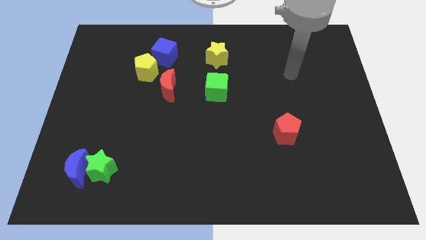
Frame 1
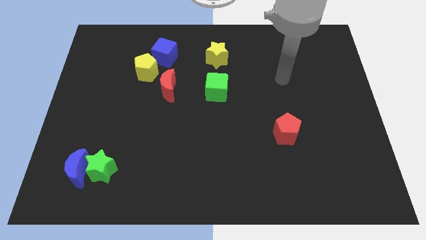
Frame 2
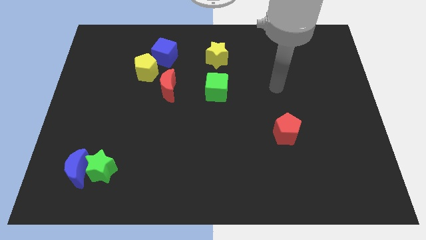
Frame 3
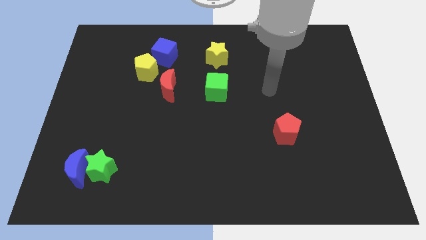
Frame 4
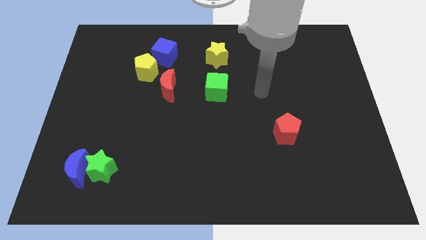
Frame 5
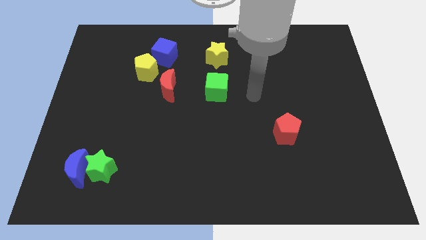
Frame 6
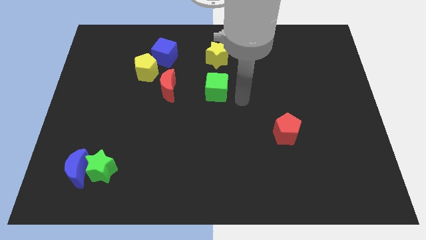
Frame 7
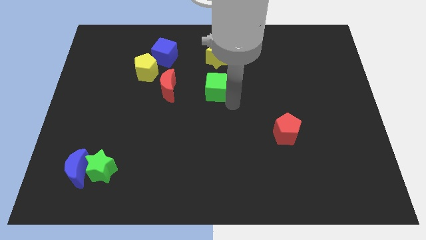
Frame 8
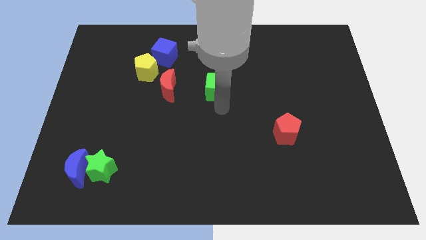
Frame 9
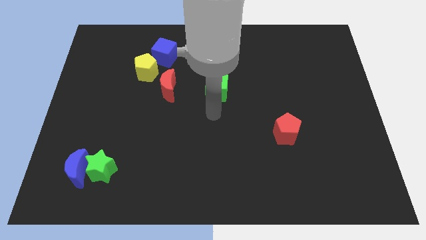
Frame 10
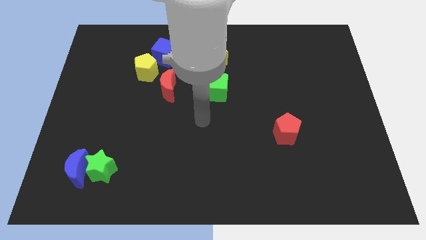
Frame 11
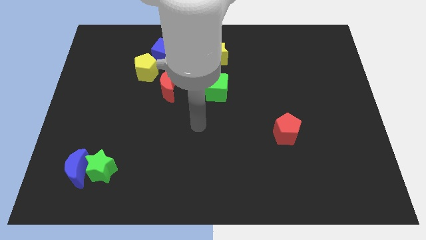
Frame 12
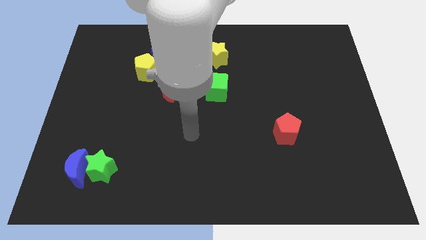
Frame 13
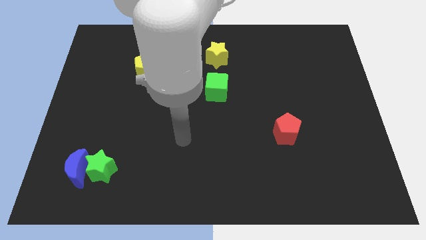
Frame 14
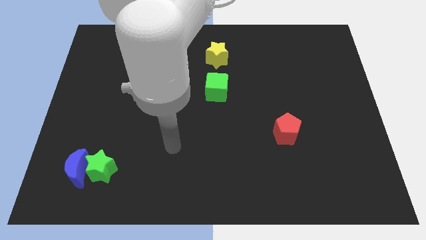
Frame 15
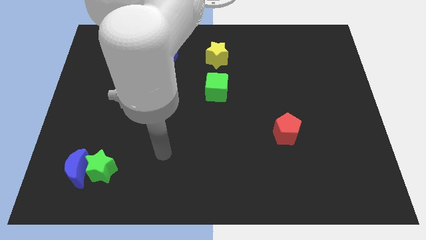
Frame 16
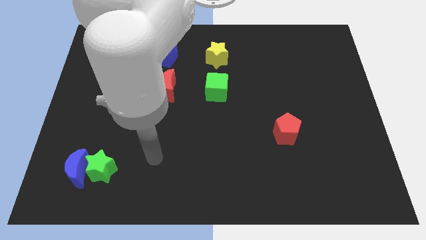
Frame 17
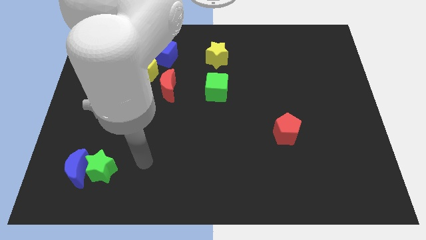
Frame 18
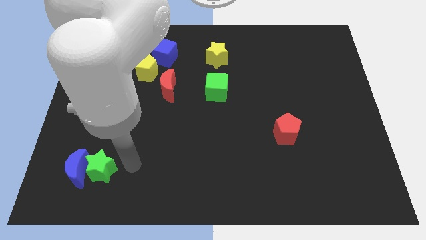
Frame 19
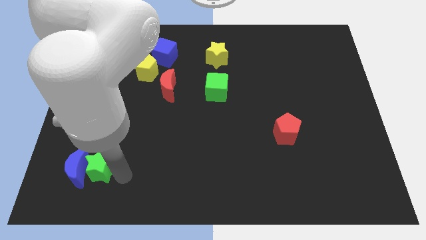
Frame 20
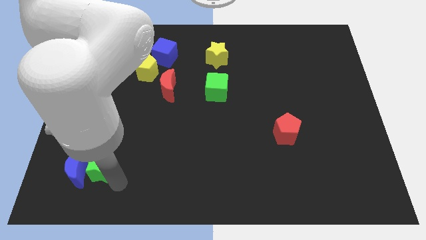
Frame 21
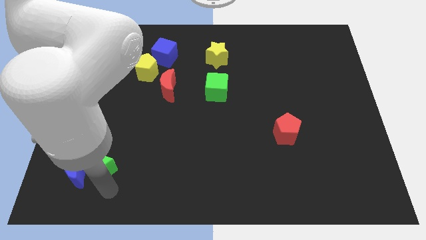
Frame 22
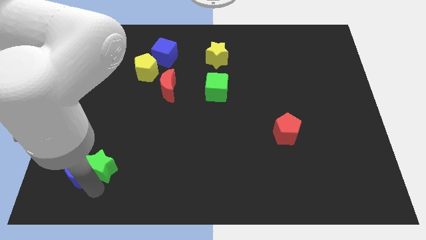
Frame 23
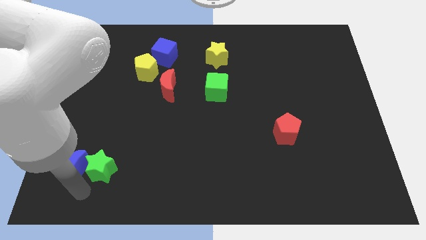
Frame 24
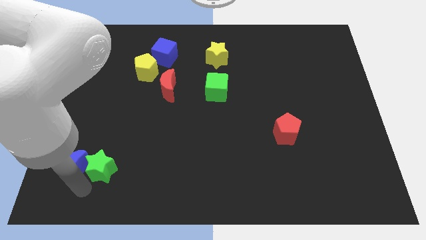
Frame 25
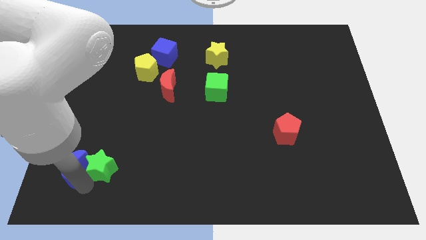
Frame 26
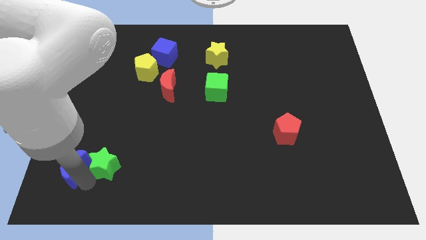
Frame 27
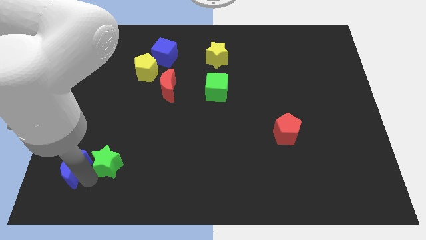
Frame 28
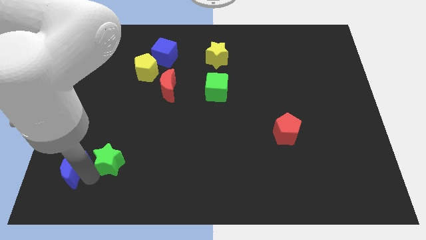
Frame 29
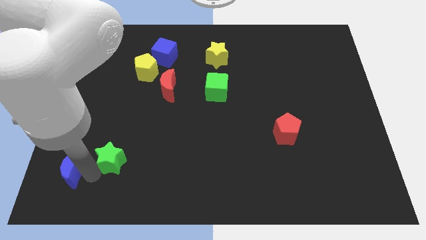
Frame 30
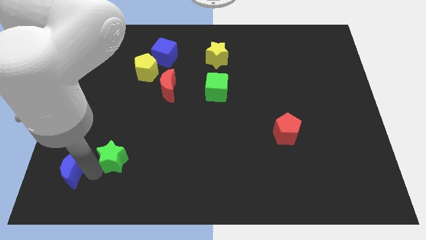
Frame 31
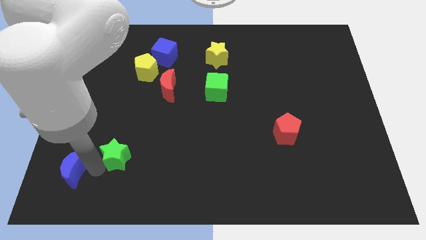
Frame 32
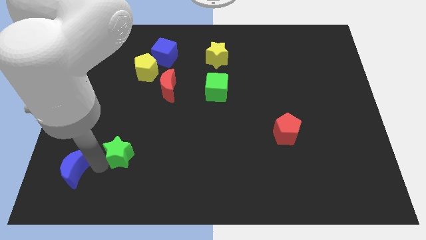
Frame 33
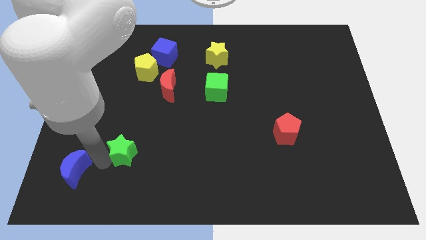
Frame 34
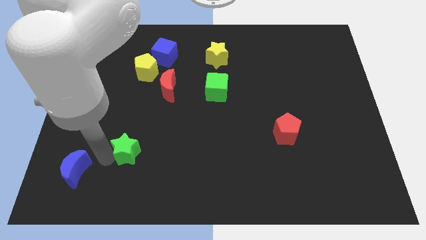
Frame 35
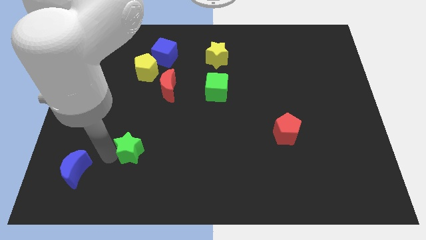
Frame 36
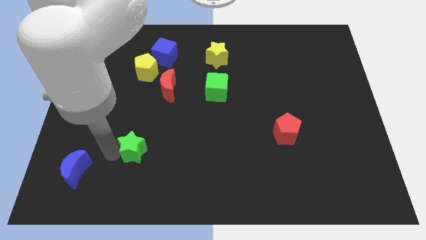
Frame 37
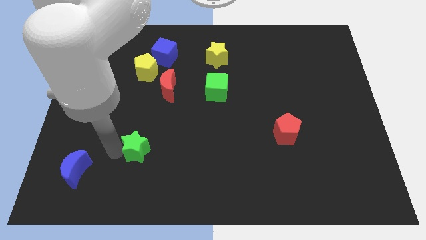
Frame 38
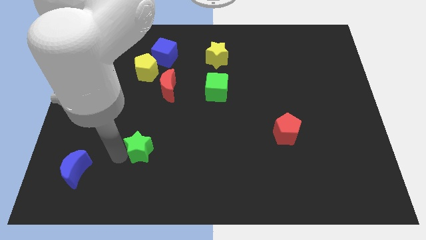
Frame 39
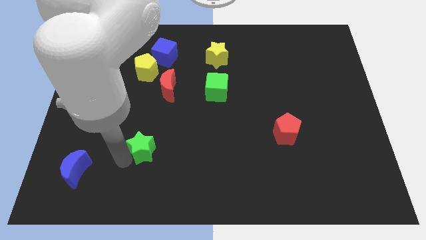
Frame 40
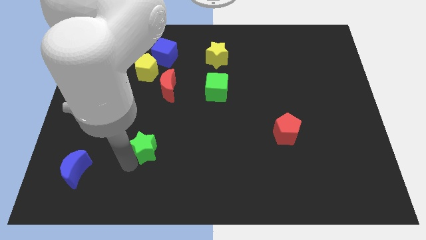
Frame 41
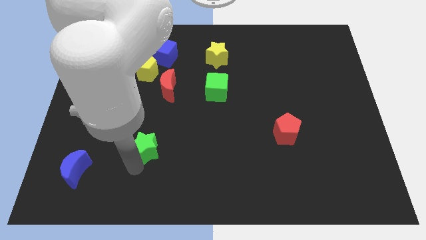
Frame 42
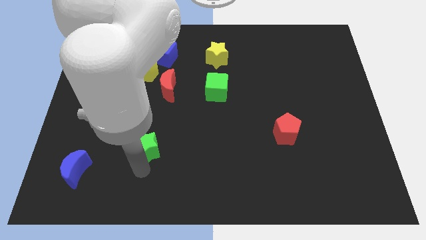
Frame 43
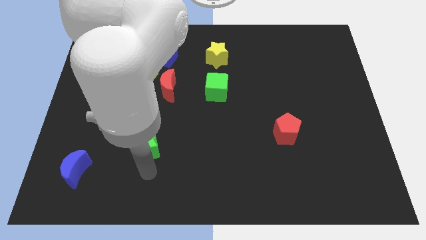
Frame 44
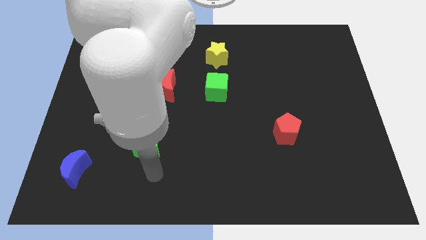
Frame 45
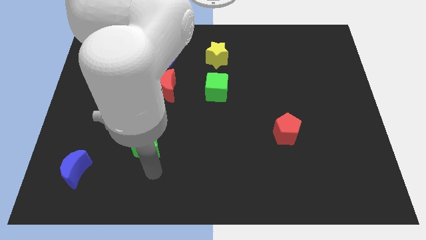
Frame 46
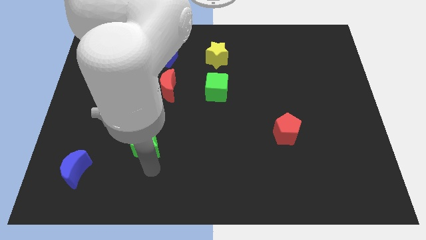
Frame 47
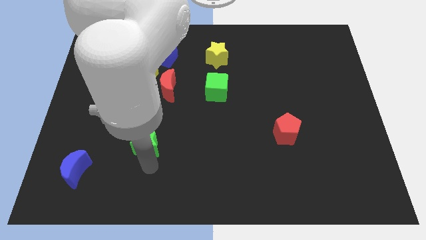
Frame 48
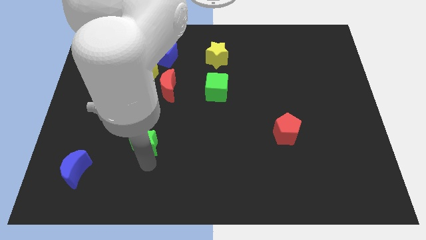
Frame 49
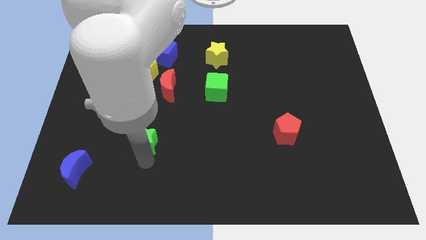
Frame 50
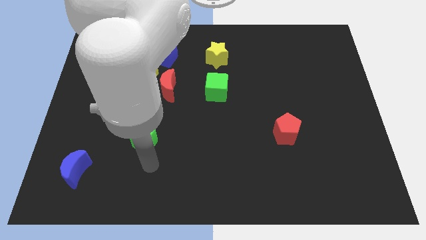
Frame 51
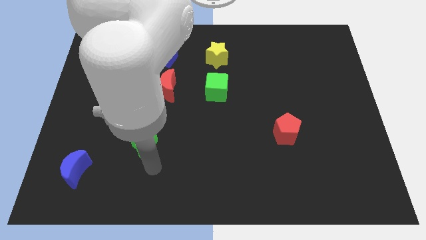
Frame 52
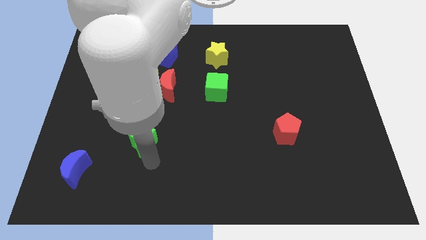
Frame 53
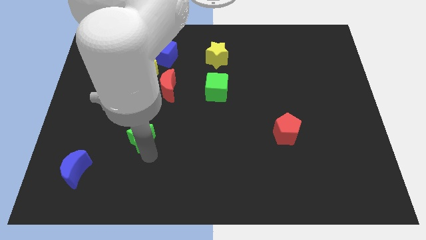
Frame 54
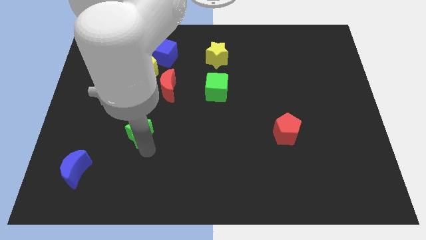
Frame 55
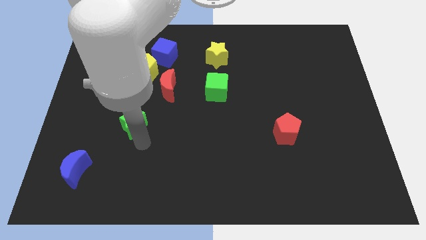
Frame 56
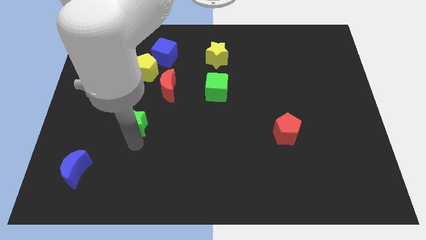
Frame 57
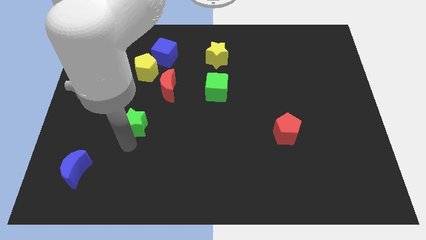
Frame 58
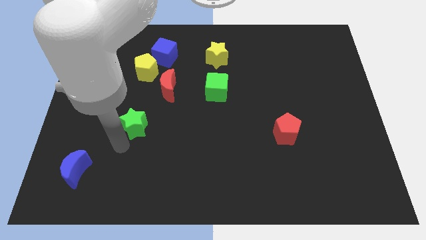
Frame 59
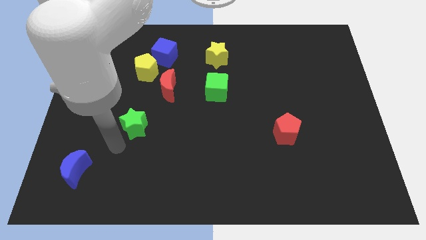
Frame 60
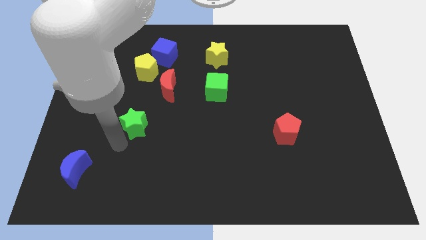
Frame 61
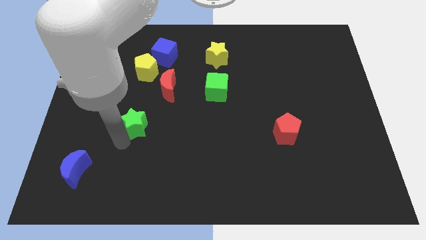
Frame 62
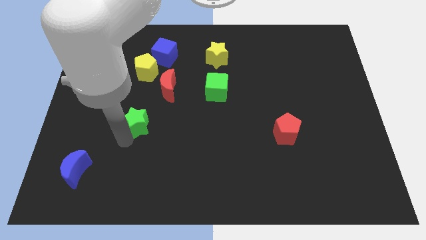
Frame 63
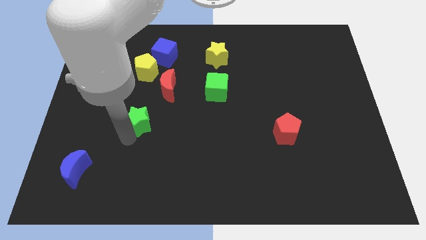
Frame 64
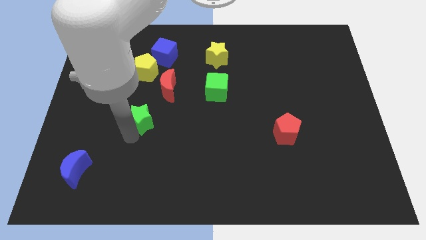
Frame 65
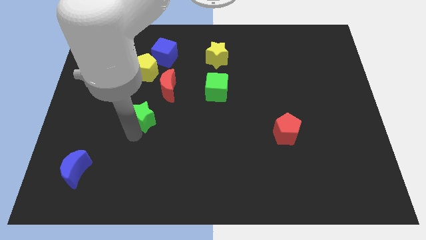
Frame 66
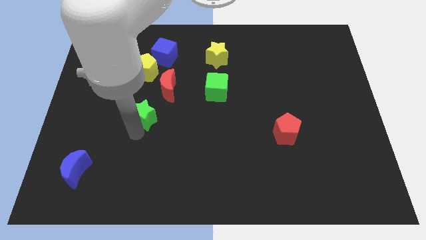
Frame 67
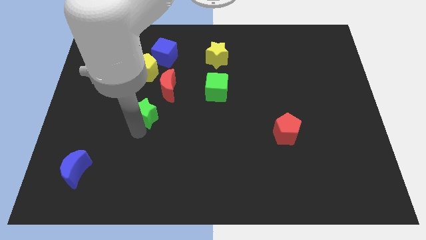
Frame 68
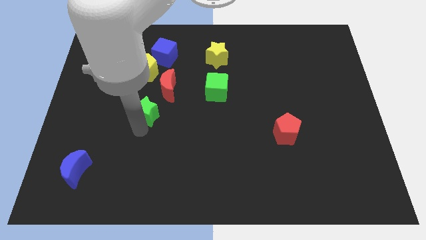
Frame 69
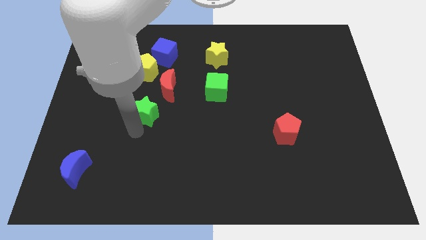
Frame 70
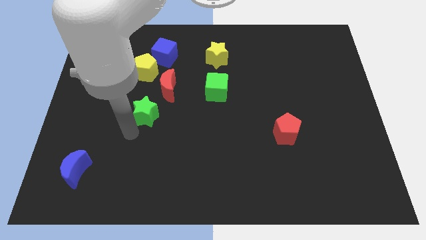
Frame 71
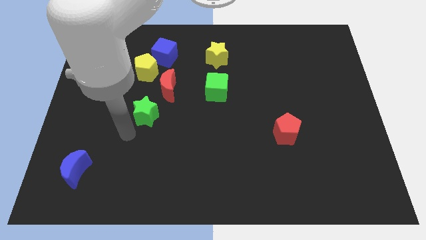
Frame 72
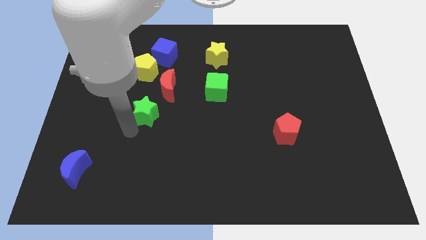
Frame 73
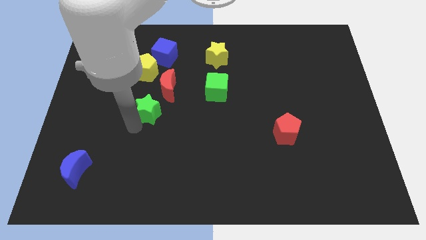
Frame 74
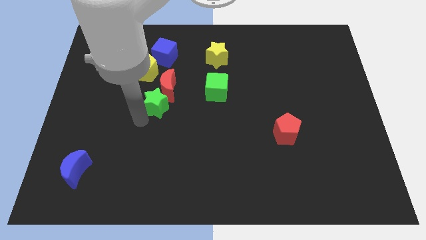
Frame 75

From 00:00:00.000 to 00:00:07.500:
push the green star to the red moon

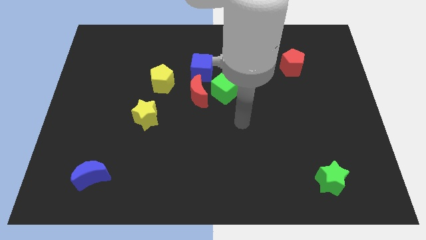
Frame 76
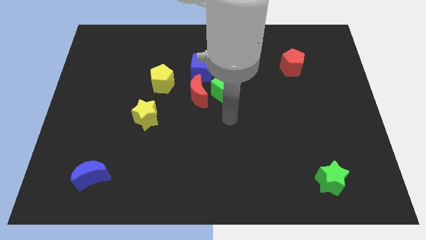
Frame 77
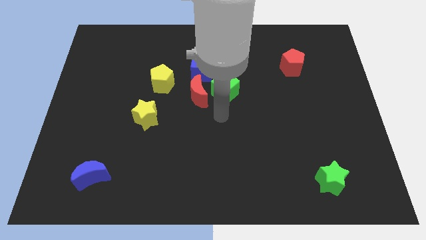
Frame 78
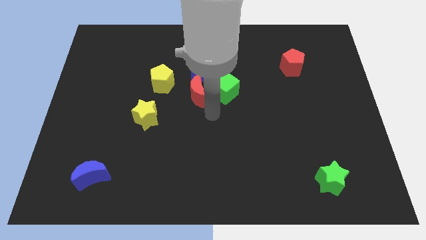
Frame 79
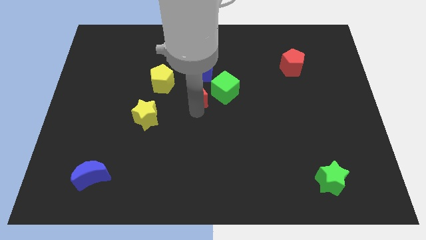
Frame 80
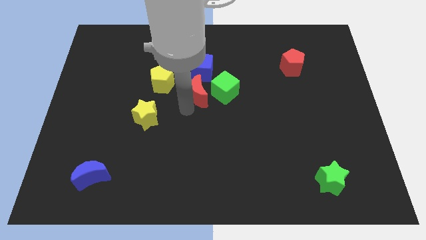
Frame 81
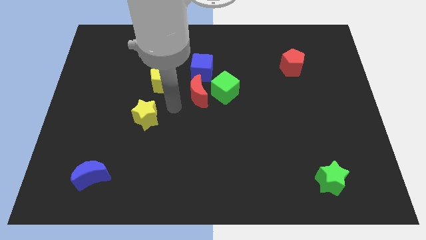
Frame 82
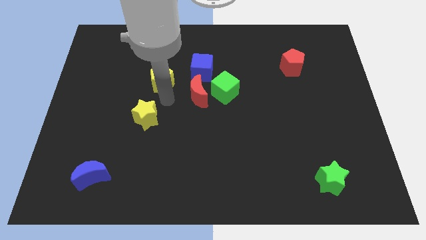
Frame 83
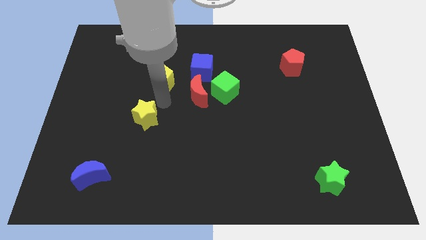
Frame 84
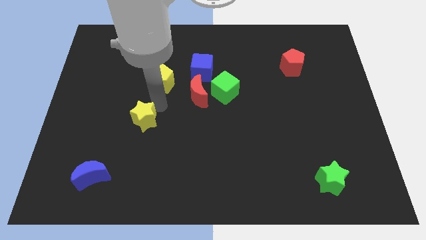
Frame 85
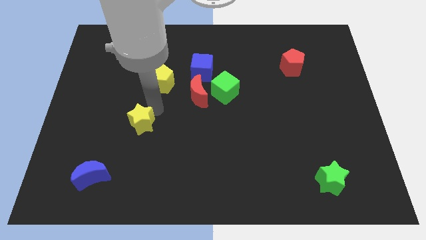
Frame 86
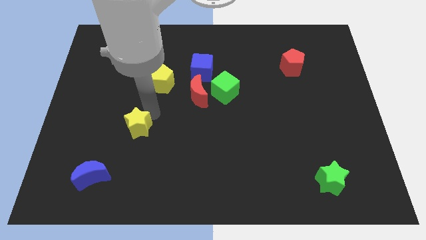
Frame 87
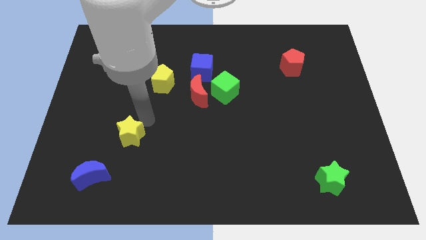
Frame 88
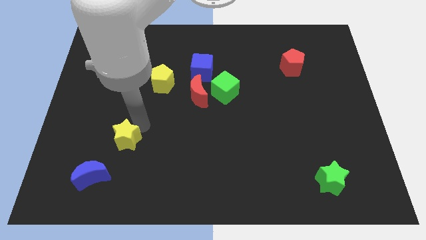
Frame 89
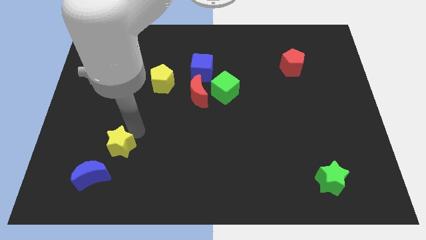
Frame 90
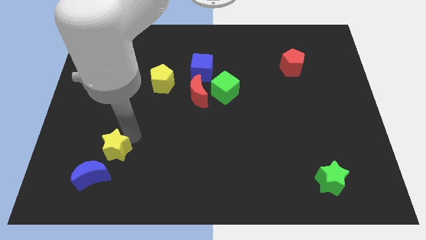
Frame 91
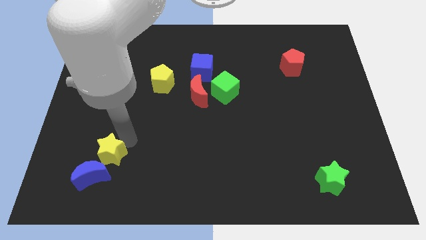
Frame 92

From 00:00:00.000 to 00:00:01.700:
put the yellow star towards the blue moon
